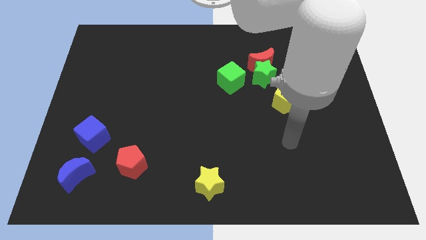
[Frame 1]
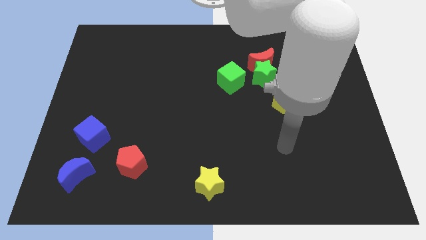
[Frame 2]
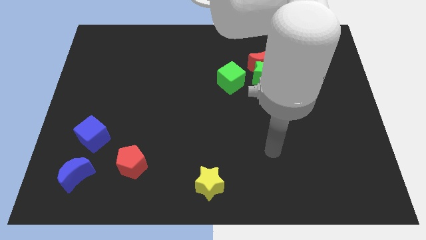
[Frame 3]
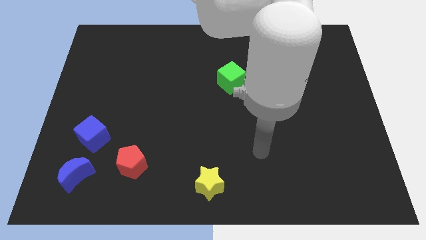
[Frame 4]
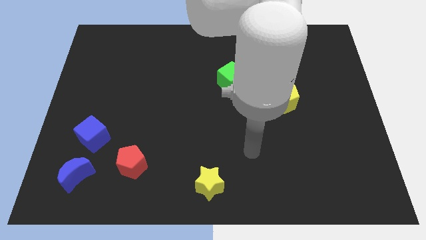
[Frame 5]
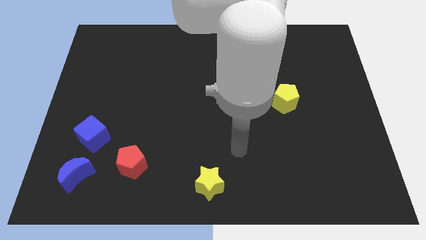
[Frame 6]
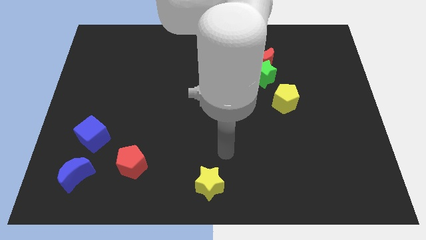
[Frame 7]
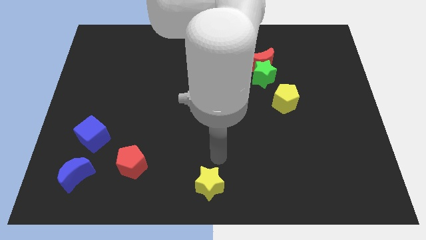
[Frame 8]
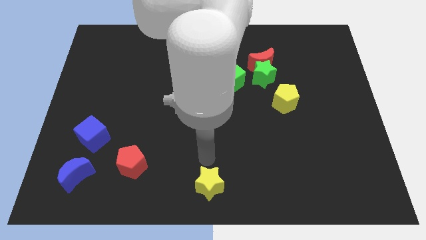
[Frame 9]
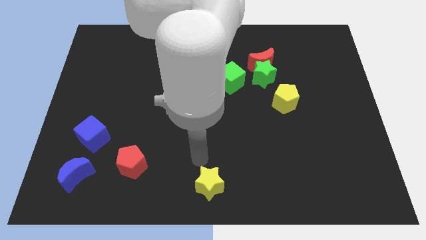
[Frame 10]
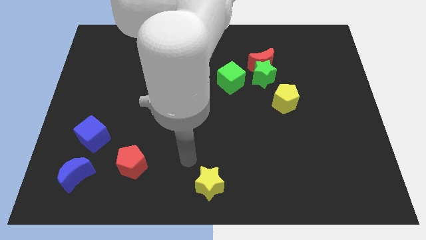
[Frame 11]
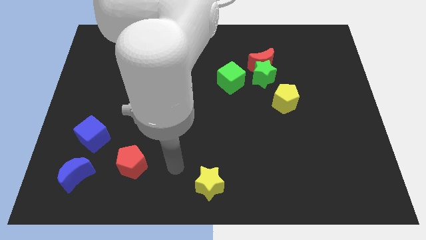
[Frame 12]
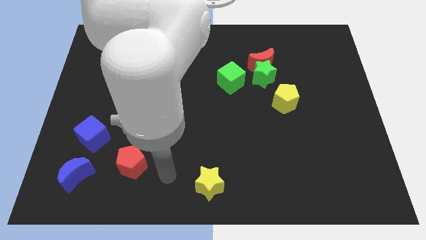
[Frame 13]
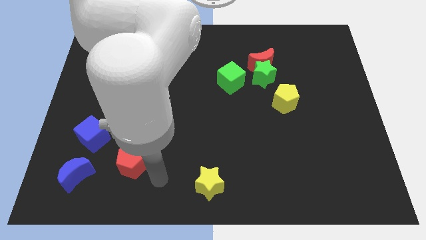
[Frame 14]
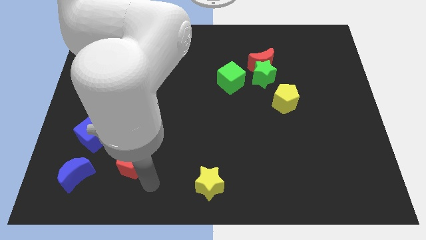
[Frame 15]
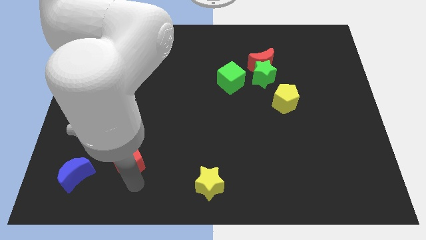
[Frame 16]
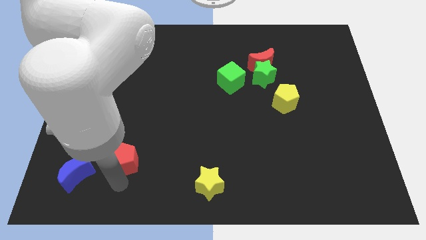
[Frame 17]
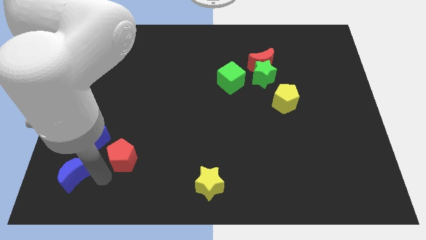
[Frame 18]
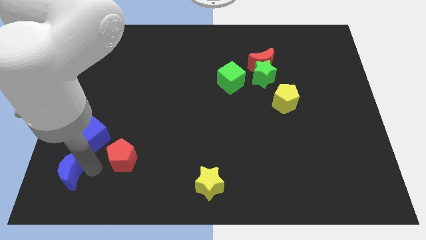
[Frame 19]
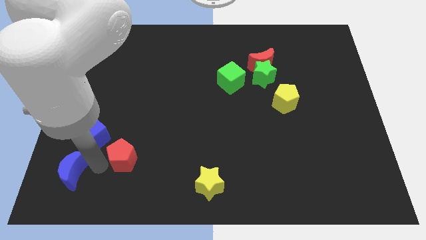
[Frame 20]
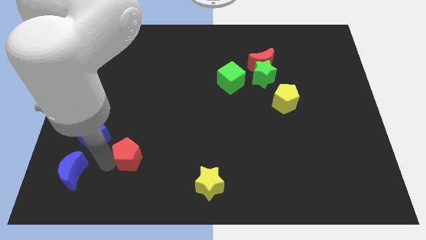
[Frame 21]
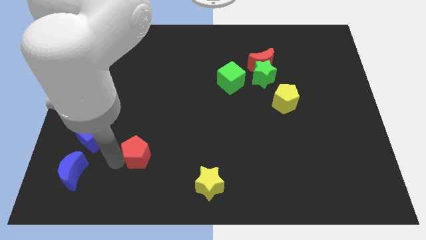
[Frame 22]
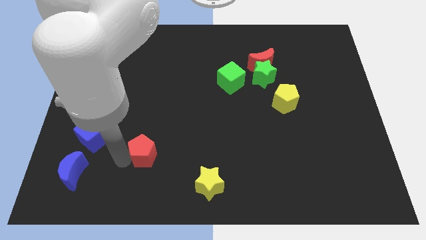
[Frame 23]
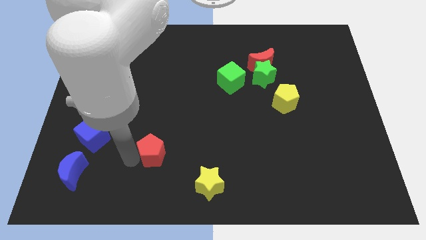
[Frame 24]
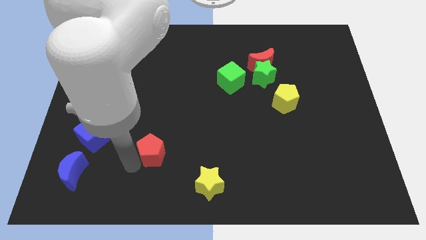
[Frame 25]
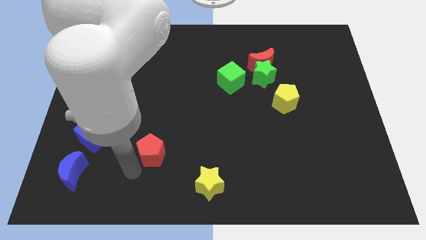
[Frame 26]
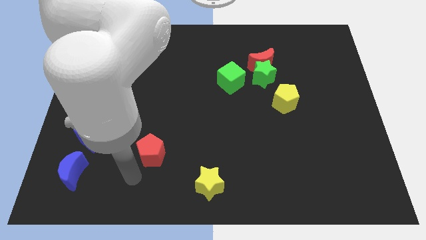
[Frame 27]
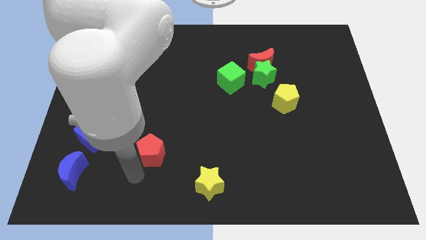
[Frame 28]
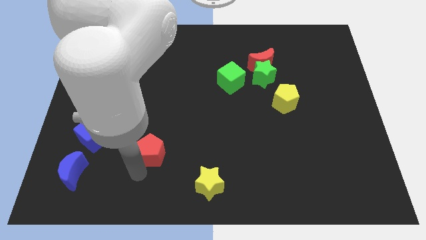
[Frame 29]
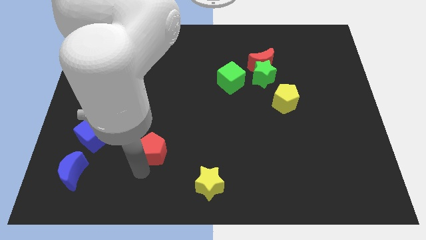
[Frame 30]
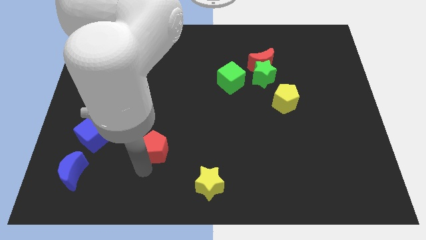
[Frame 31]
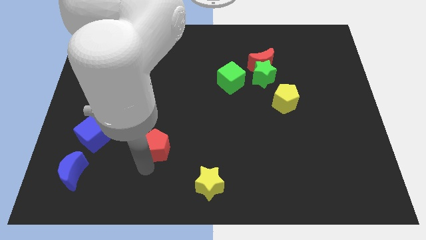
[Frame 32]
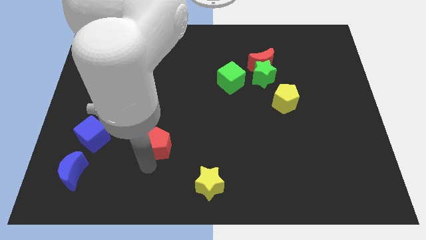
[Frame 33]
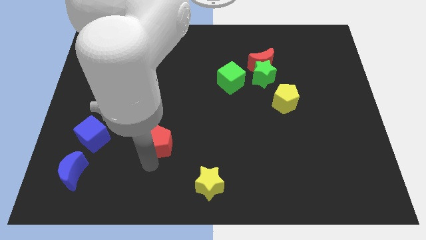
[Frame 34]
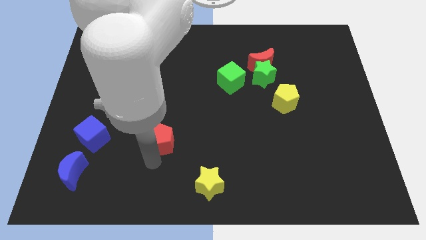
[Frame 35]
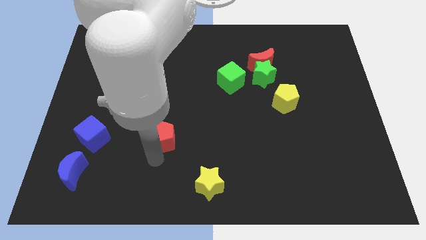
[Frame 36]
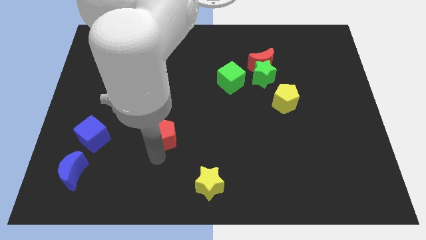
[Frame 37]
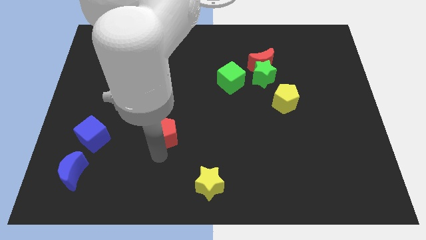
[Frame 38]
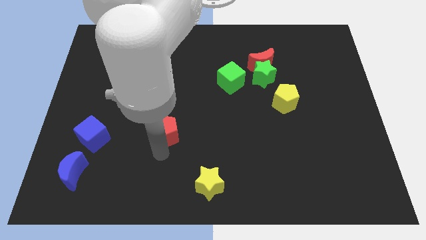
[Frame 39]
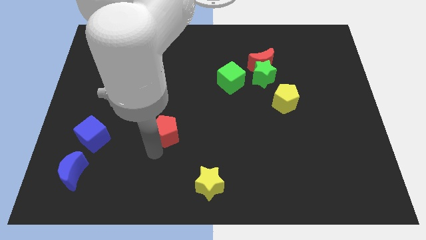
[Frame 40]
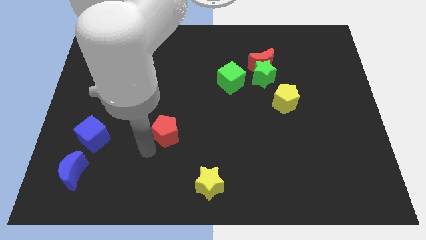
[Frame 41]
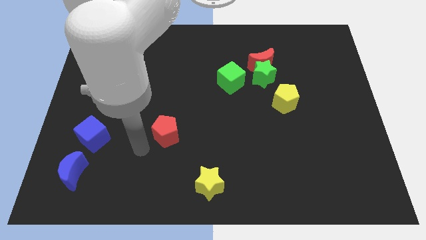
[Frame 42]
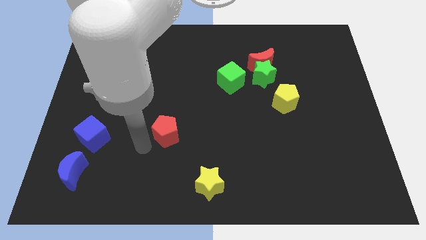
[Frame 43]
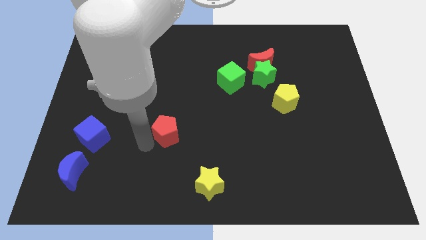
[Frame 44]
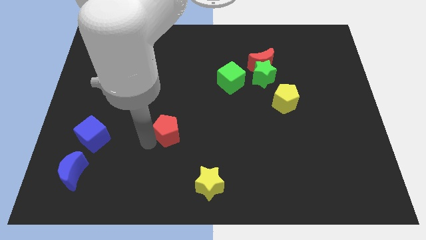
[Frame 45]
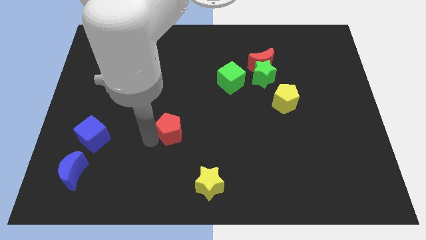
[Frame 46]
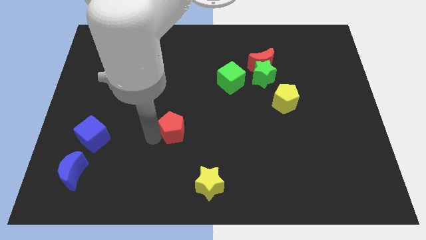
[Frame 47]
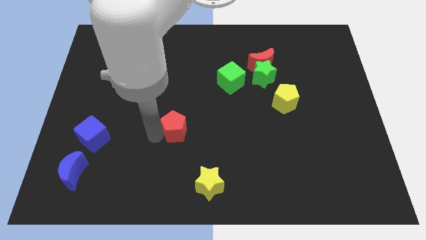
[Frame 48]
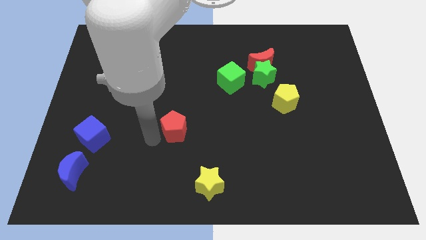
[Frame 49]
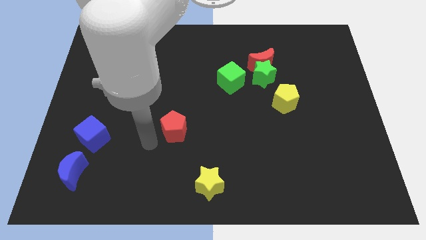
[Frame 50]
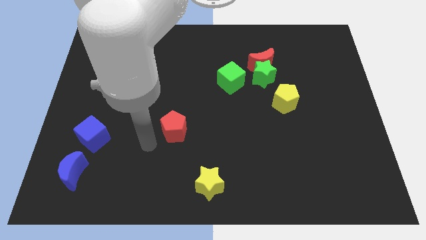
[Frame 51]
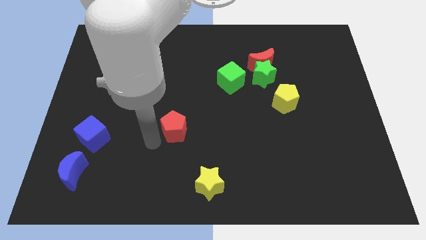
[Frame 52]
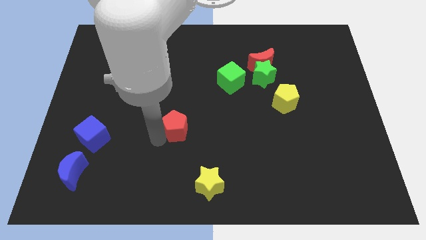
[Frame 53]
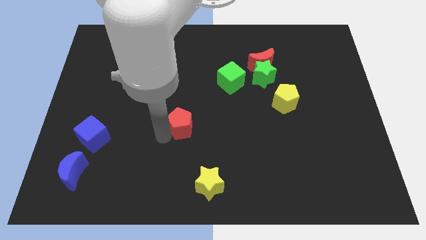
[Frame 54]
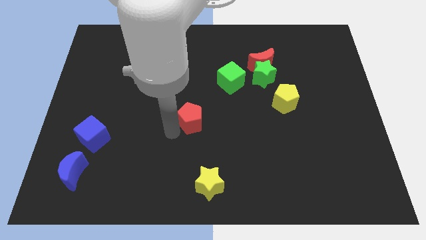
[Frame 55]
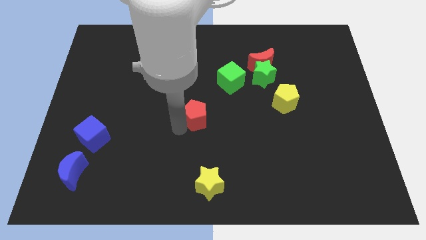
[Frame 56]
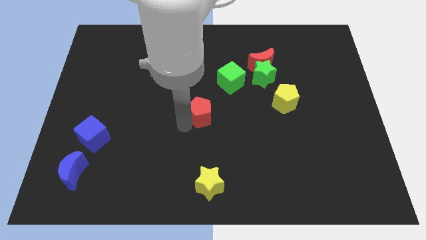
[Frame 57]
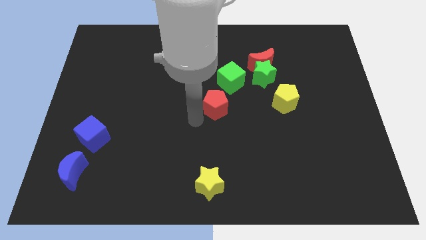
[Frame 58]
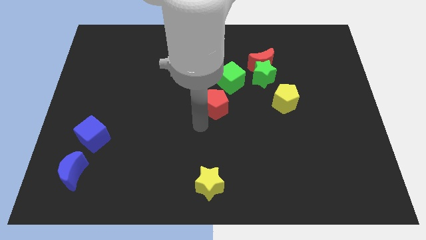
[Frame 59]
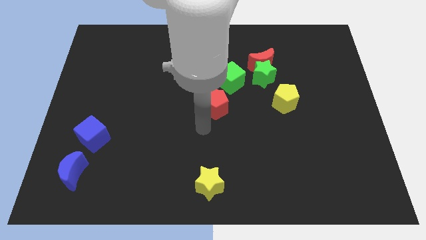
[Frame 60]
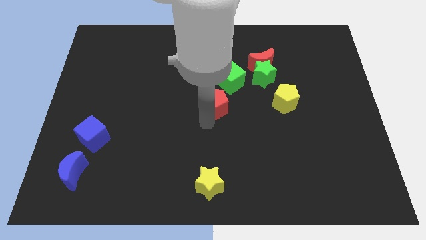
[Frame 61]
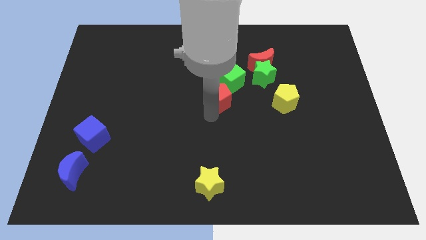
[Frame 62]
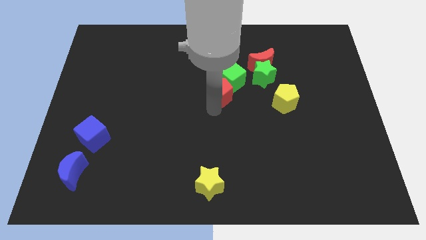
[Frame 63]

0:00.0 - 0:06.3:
push the red pentagon close to the green cube

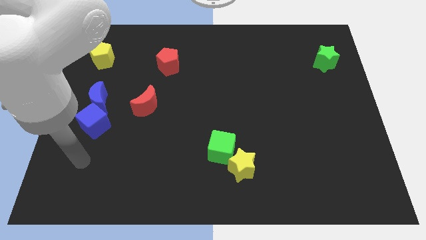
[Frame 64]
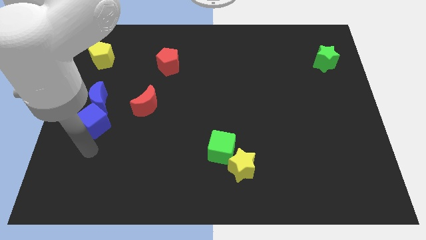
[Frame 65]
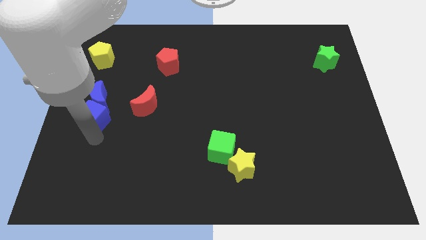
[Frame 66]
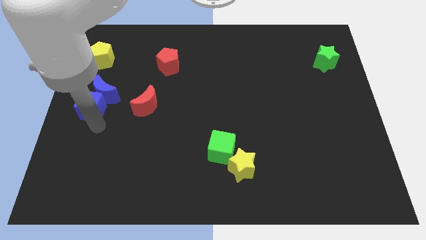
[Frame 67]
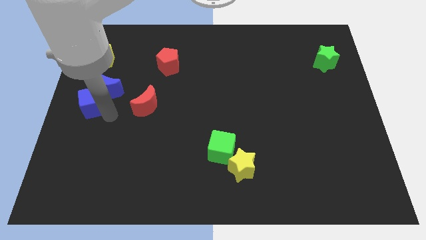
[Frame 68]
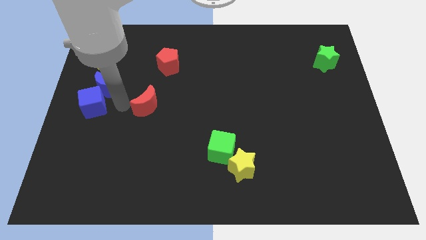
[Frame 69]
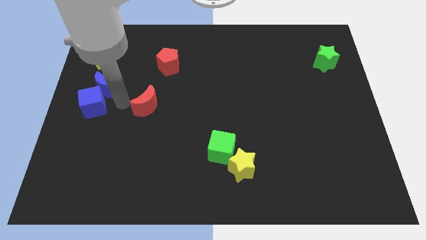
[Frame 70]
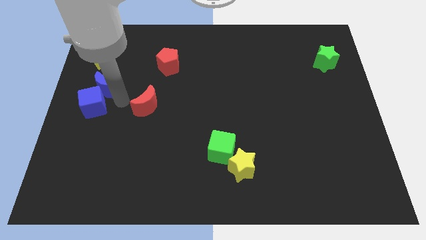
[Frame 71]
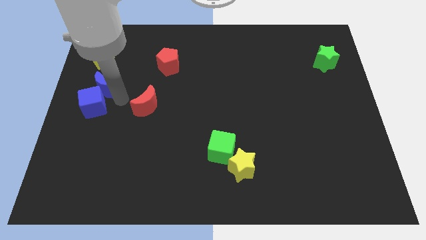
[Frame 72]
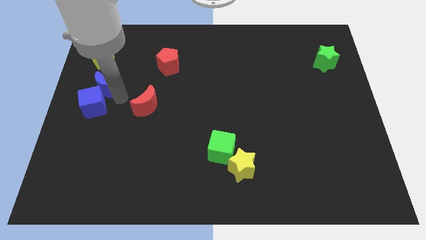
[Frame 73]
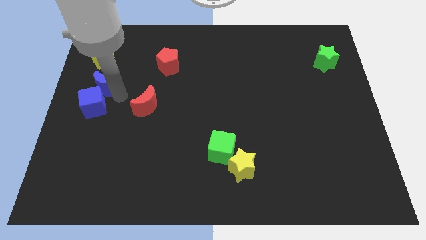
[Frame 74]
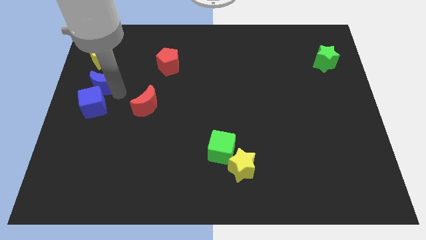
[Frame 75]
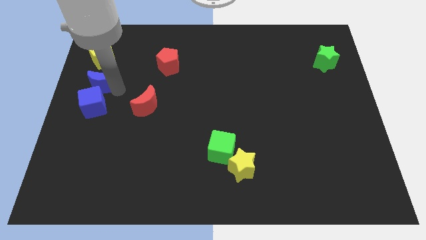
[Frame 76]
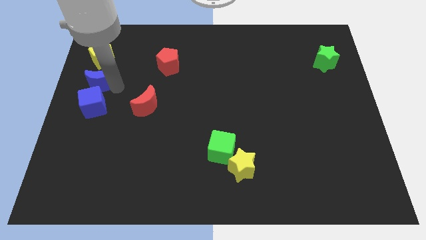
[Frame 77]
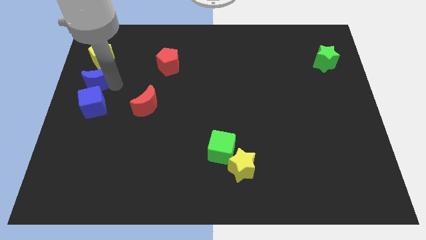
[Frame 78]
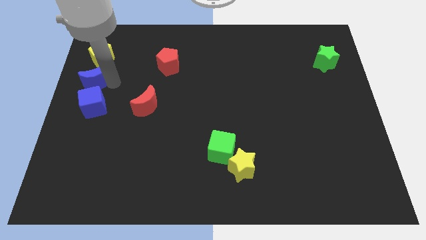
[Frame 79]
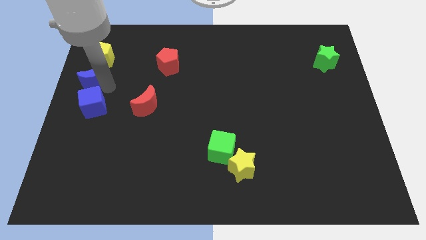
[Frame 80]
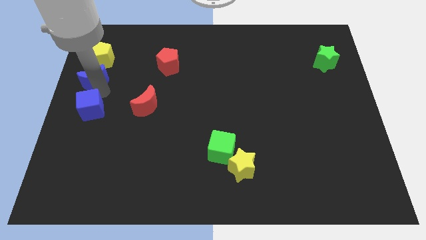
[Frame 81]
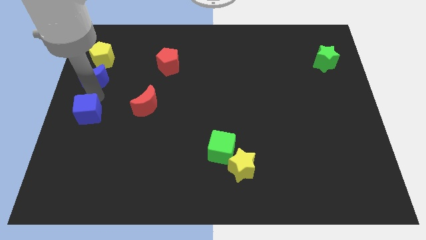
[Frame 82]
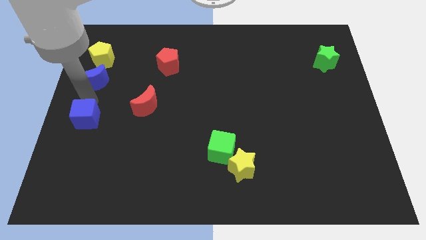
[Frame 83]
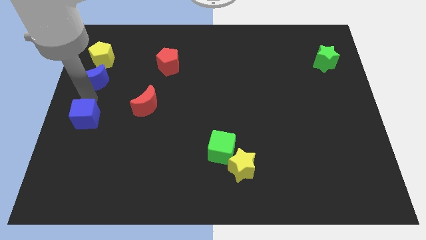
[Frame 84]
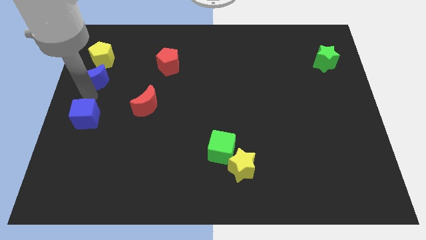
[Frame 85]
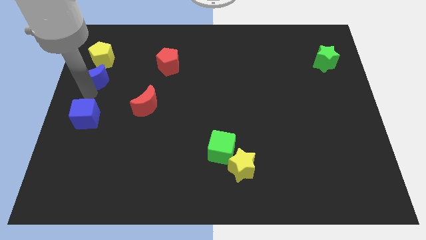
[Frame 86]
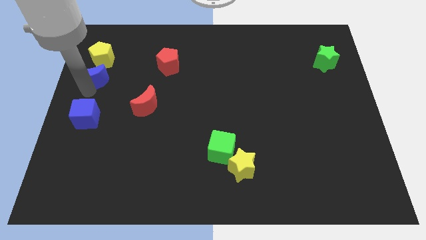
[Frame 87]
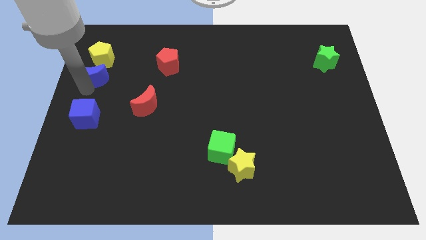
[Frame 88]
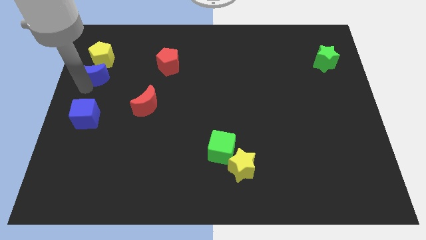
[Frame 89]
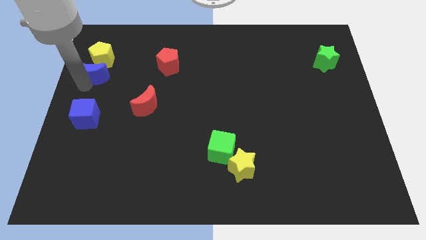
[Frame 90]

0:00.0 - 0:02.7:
move the blue moon towards the yellow pentagon
